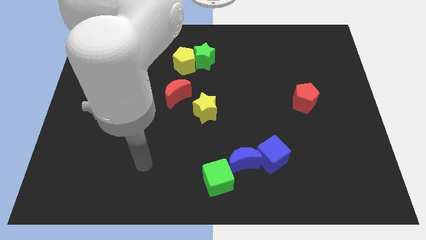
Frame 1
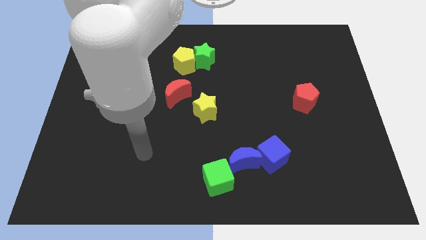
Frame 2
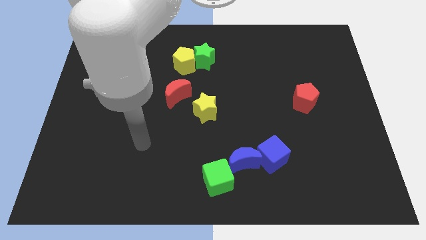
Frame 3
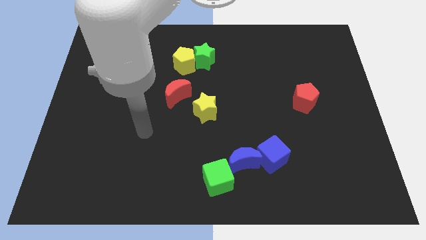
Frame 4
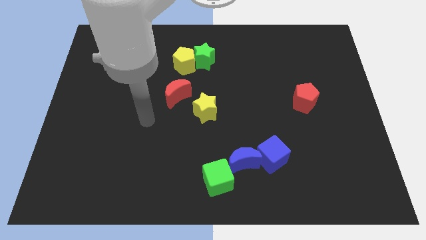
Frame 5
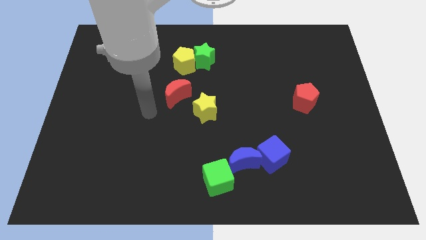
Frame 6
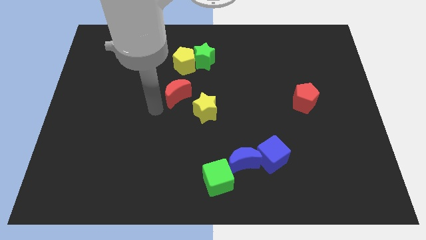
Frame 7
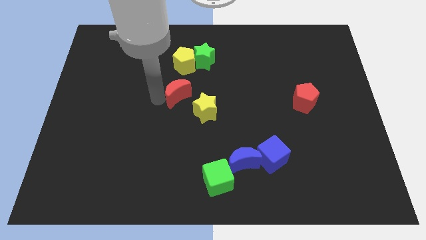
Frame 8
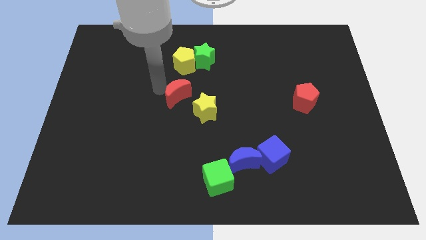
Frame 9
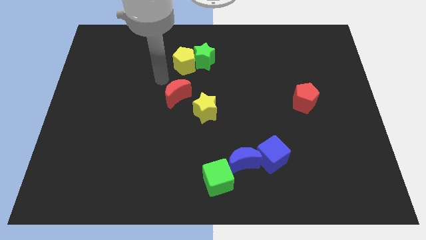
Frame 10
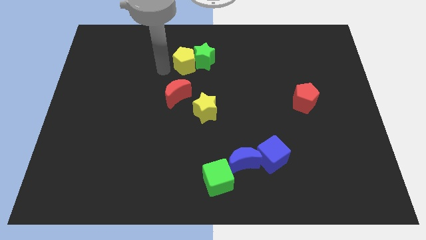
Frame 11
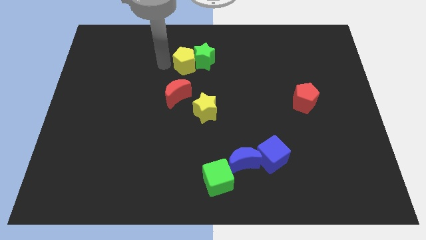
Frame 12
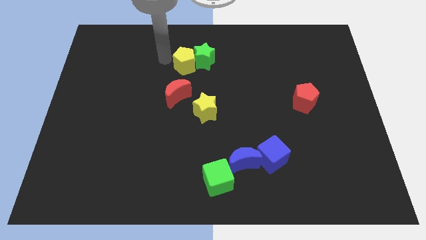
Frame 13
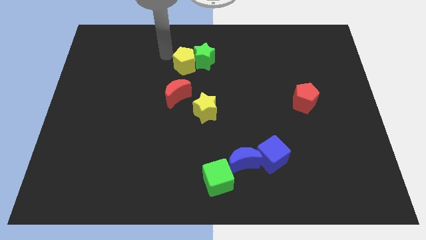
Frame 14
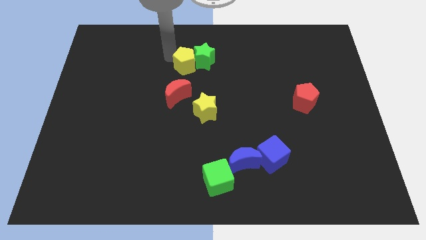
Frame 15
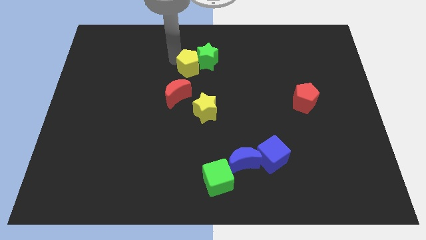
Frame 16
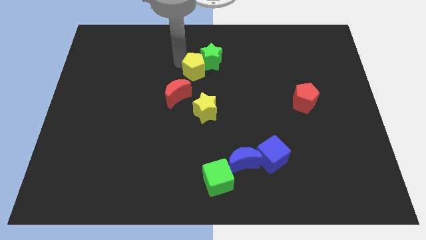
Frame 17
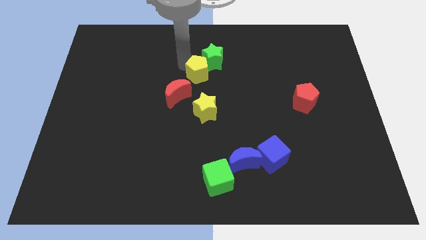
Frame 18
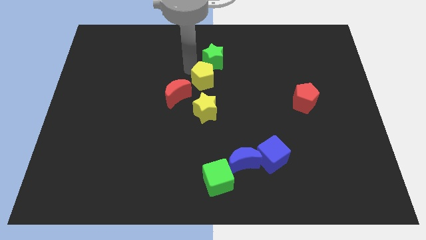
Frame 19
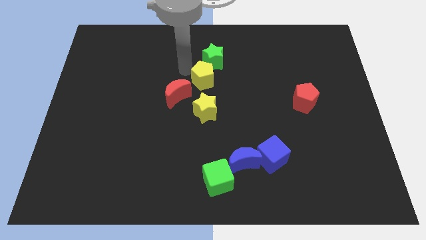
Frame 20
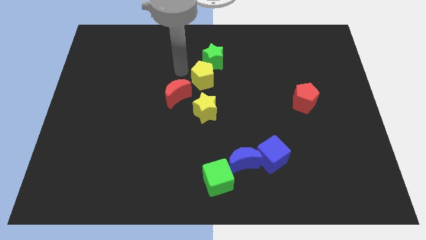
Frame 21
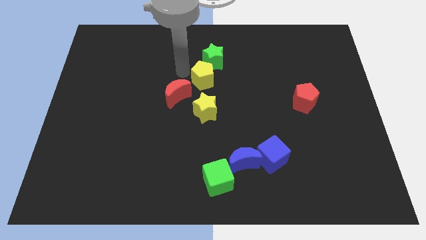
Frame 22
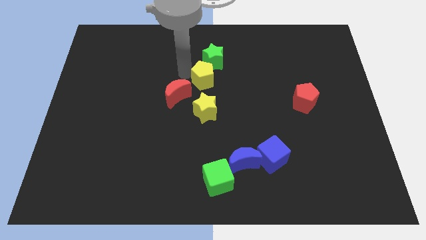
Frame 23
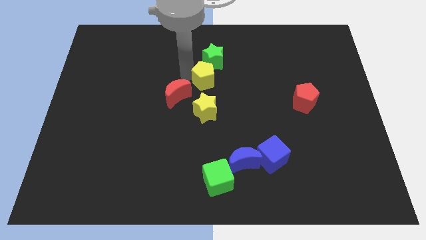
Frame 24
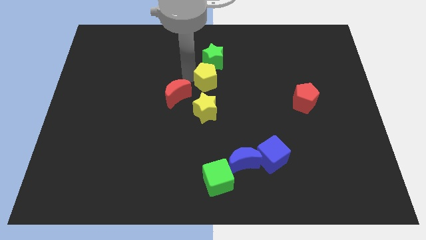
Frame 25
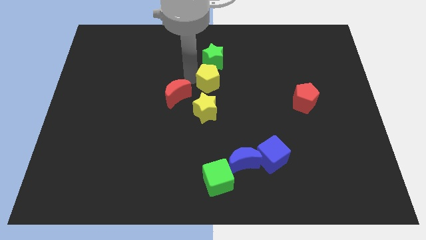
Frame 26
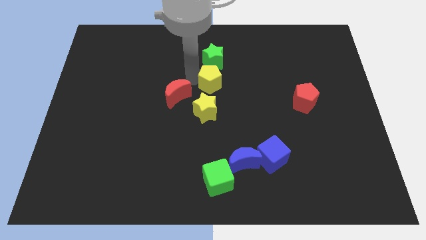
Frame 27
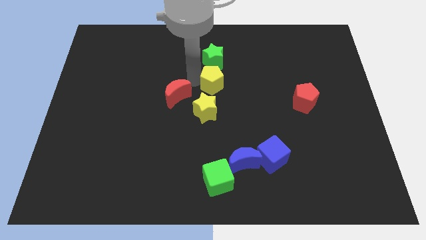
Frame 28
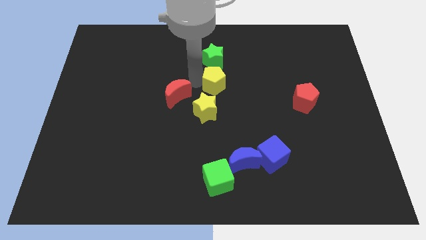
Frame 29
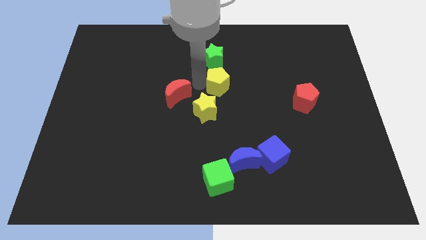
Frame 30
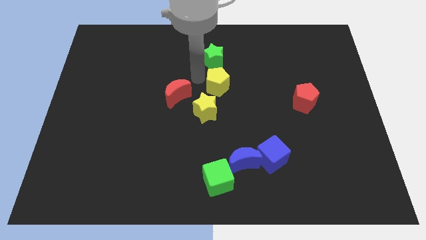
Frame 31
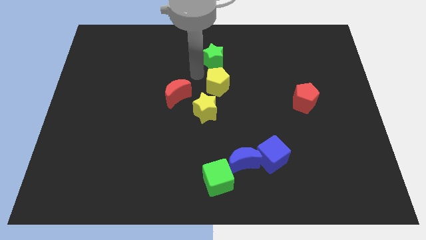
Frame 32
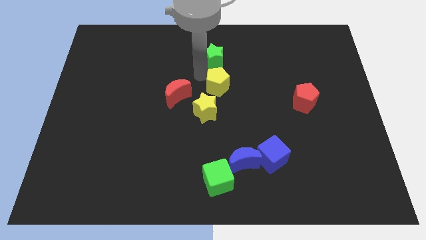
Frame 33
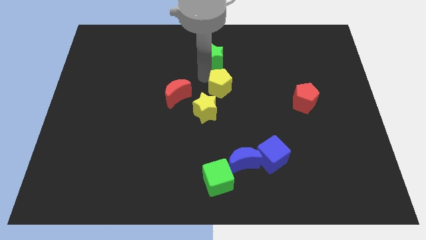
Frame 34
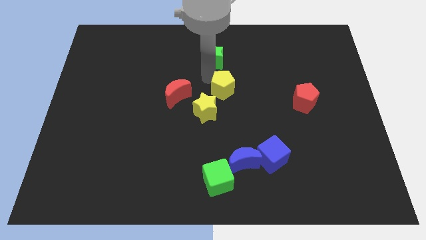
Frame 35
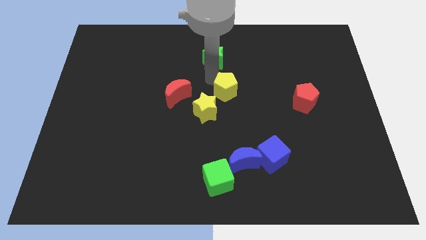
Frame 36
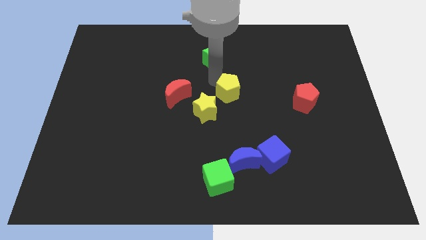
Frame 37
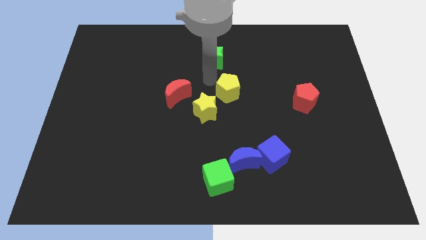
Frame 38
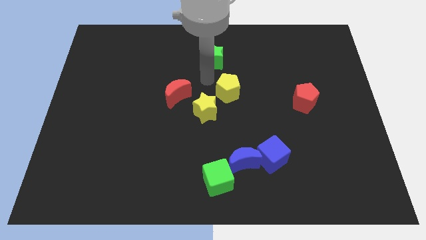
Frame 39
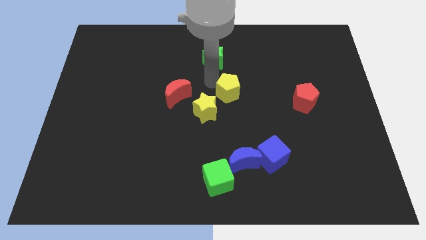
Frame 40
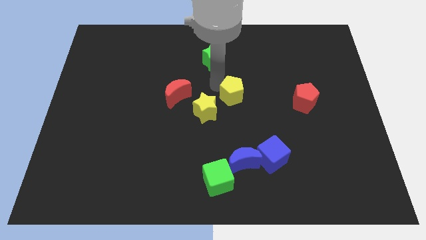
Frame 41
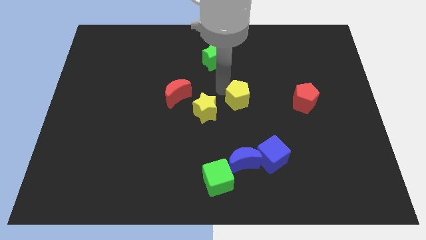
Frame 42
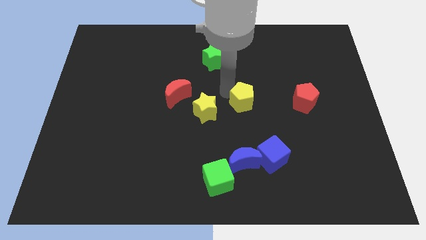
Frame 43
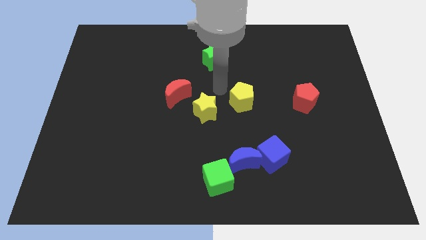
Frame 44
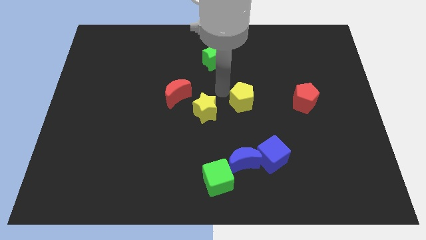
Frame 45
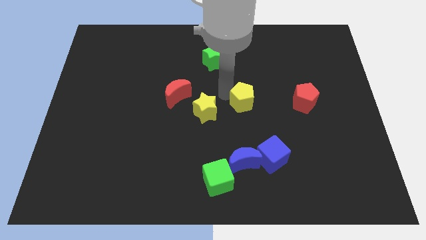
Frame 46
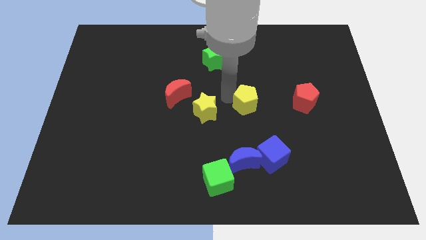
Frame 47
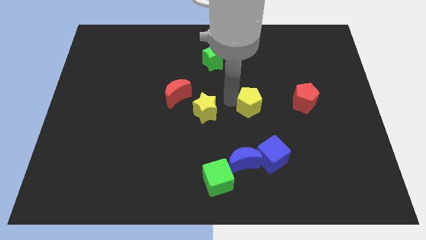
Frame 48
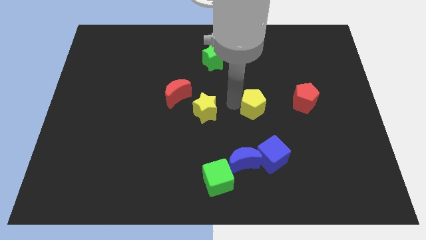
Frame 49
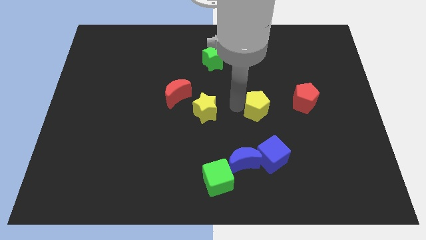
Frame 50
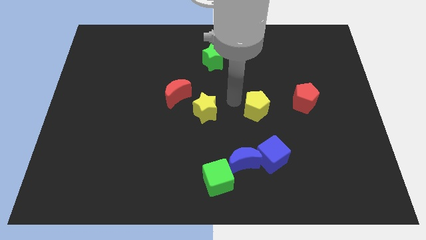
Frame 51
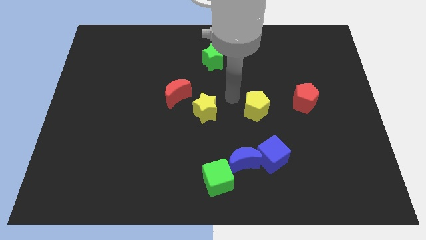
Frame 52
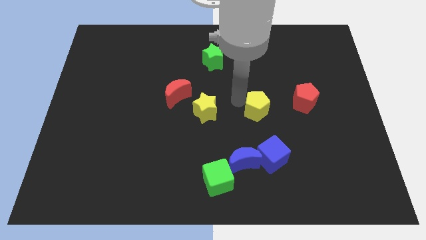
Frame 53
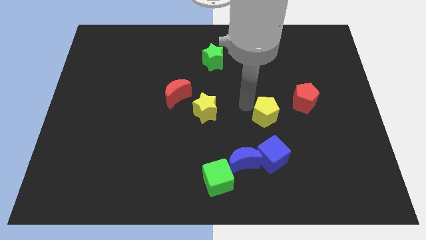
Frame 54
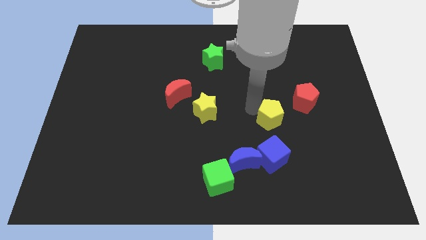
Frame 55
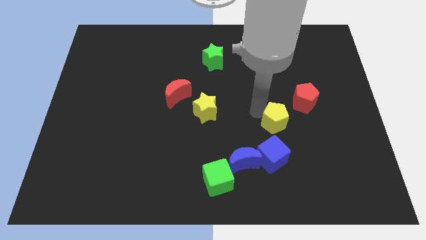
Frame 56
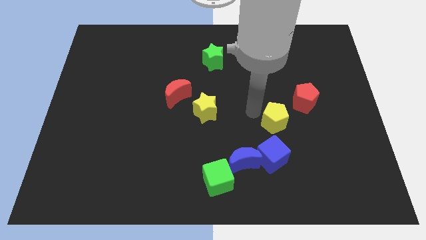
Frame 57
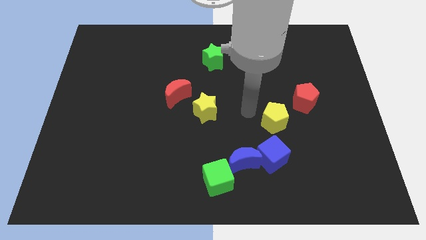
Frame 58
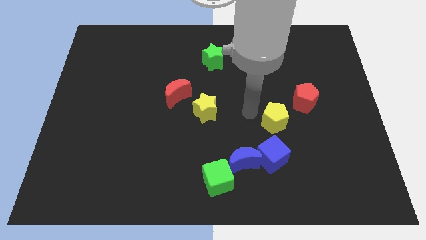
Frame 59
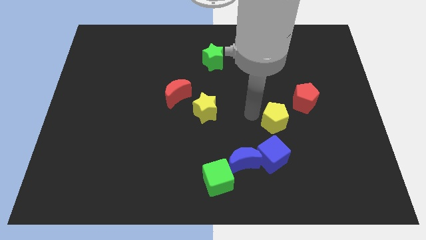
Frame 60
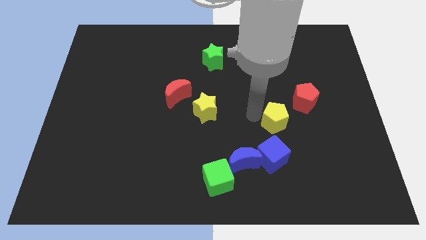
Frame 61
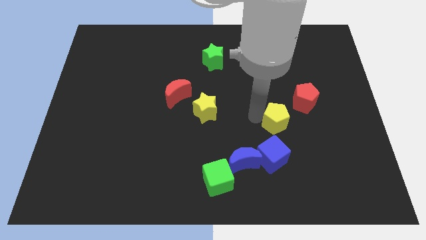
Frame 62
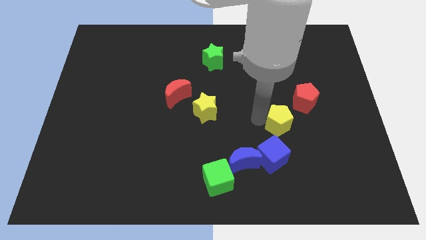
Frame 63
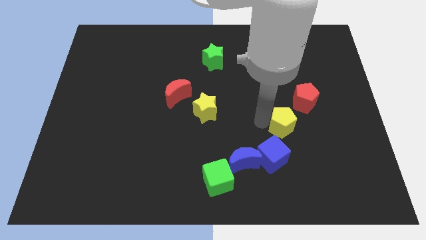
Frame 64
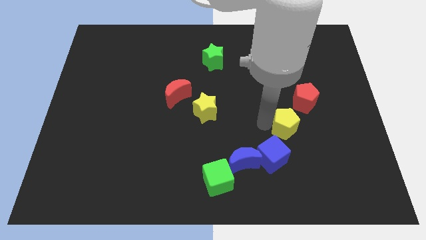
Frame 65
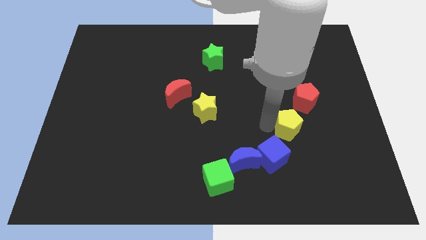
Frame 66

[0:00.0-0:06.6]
put the yellow pentagon below the red pentagon

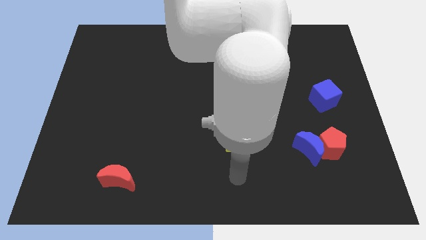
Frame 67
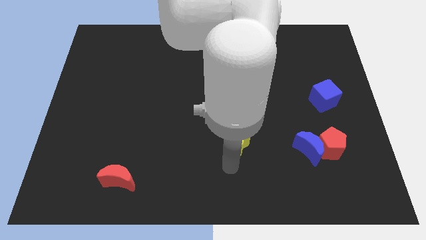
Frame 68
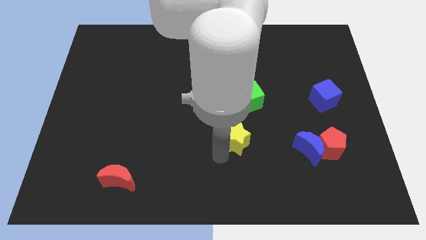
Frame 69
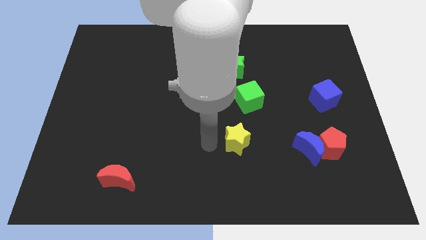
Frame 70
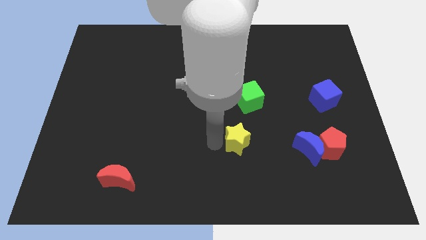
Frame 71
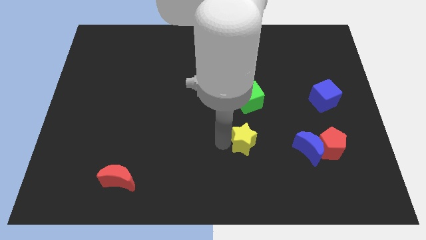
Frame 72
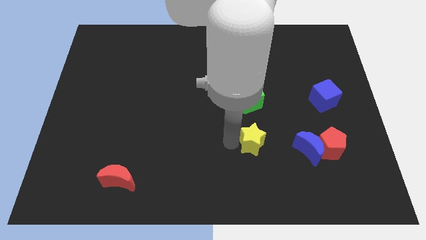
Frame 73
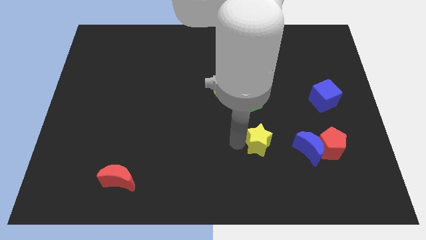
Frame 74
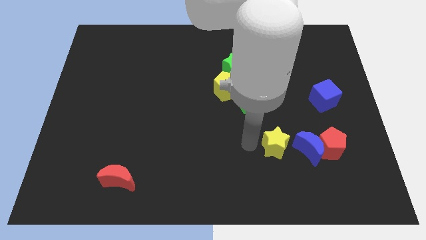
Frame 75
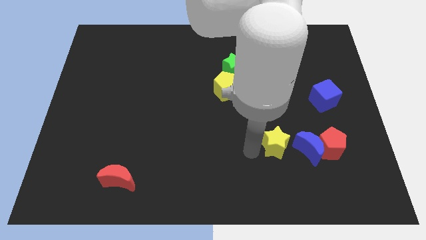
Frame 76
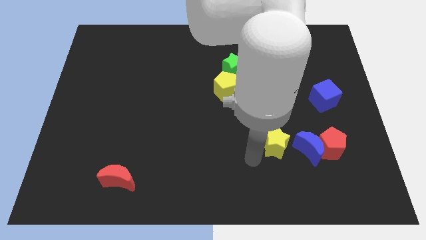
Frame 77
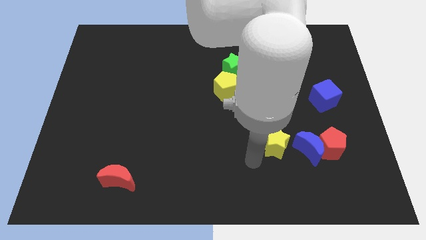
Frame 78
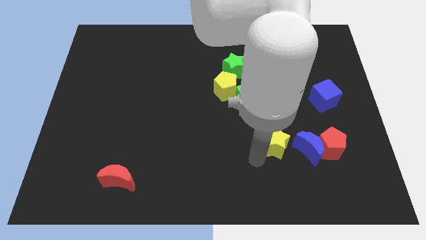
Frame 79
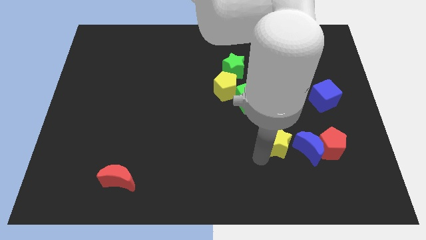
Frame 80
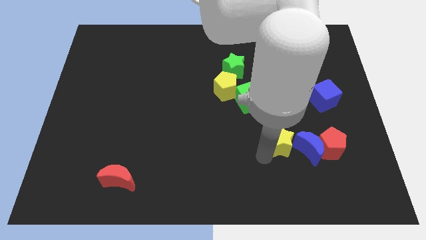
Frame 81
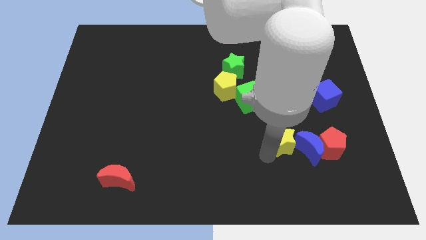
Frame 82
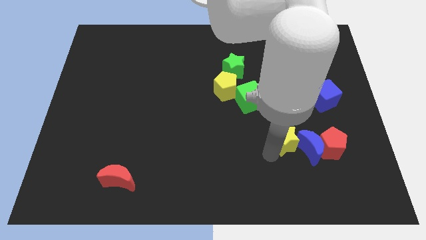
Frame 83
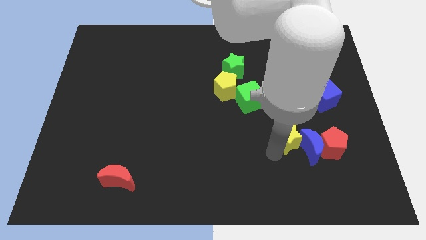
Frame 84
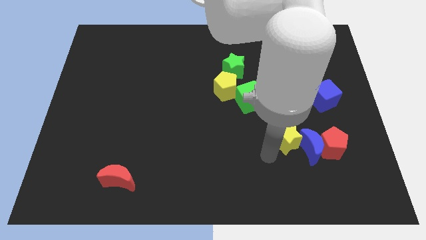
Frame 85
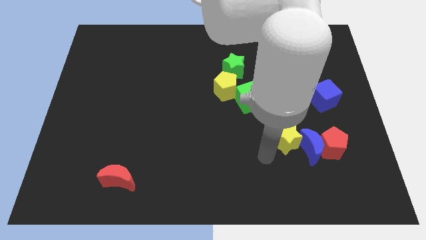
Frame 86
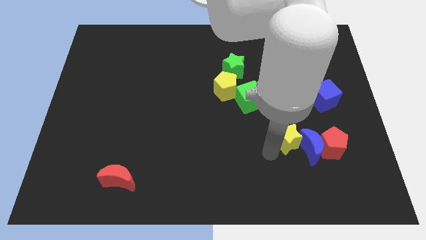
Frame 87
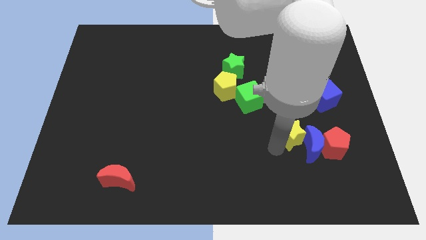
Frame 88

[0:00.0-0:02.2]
put the yellow star diagonally up and to the left of the red pentagon
